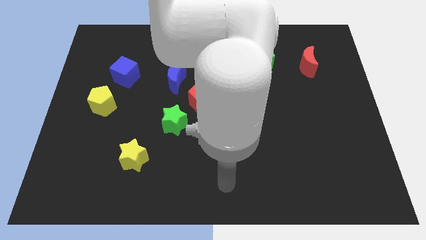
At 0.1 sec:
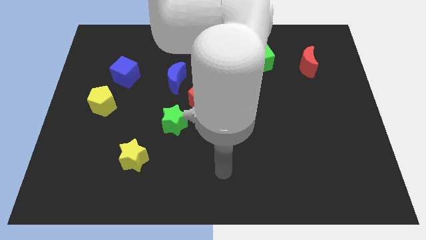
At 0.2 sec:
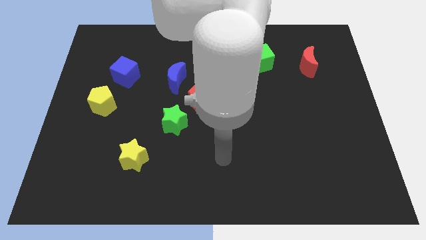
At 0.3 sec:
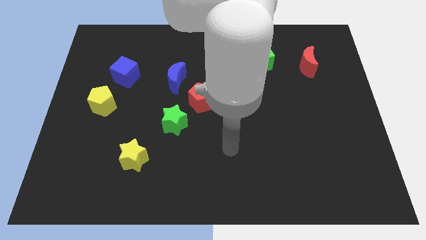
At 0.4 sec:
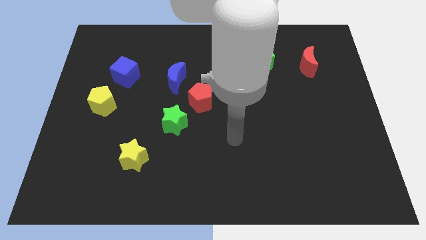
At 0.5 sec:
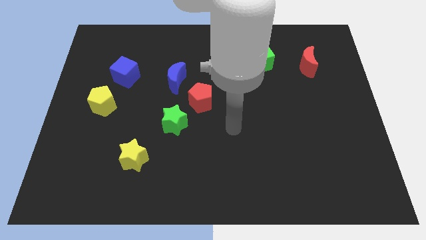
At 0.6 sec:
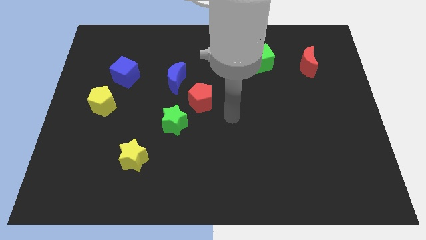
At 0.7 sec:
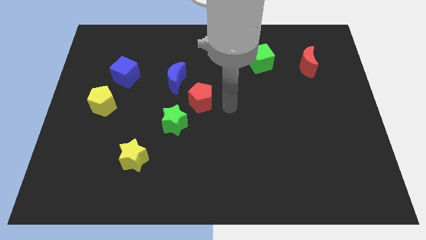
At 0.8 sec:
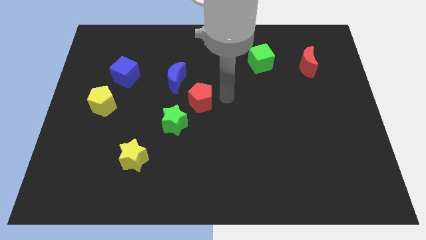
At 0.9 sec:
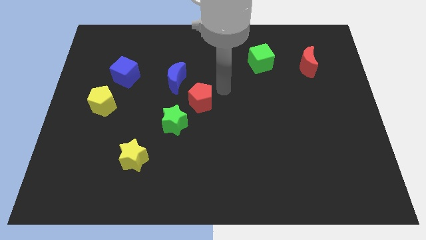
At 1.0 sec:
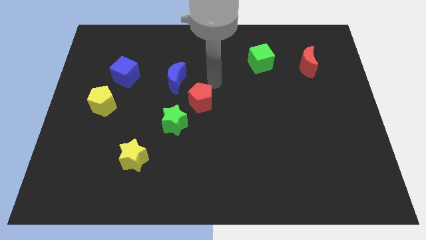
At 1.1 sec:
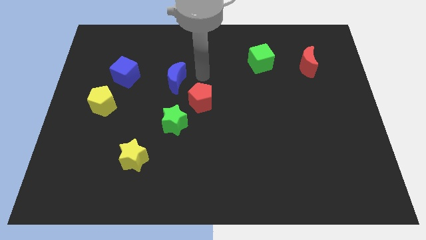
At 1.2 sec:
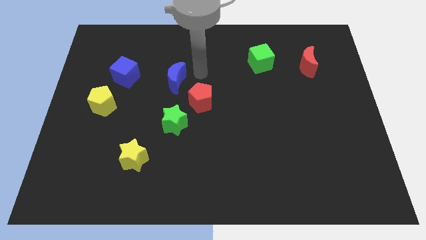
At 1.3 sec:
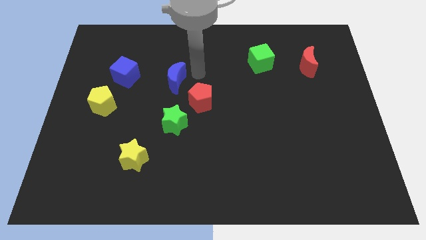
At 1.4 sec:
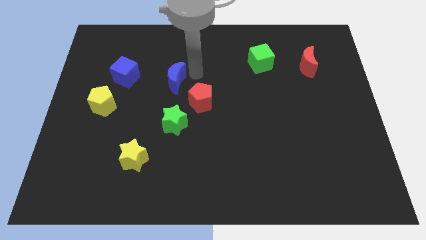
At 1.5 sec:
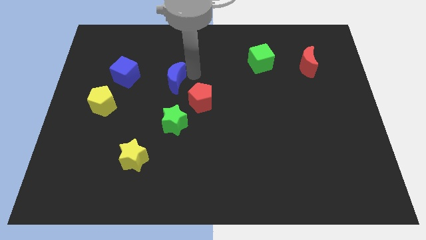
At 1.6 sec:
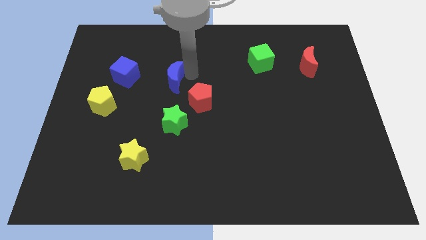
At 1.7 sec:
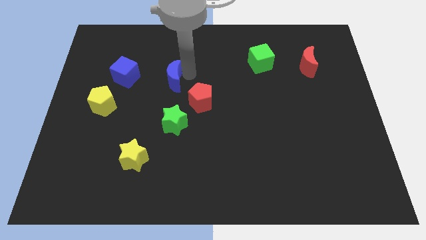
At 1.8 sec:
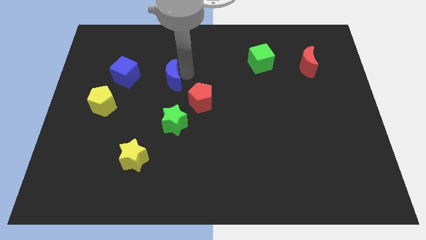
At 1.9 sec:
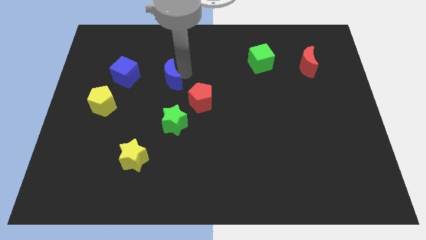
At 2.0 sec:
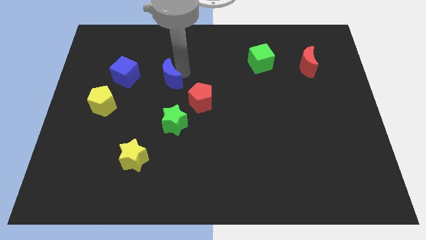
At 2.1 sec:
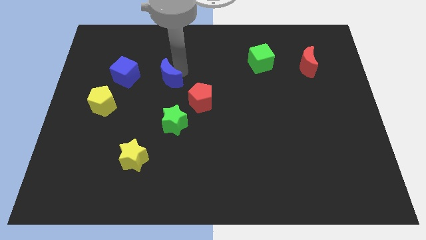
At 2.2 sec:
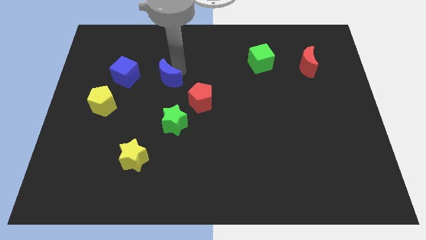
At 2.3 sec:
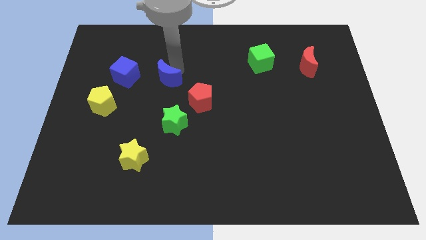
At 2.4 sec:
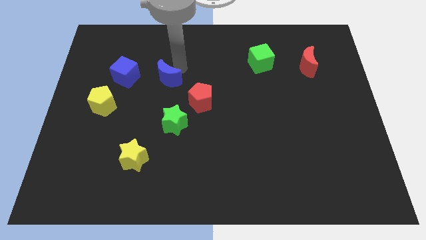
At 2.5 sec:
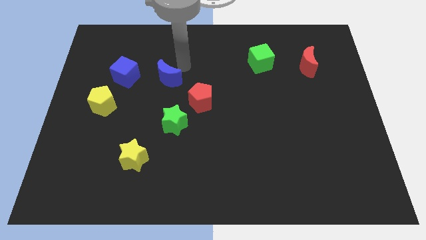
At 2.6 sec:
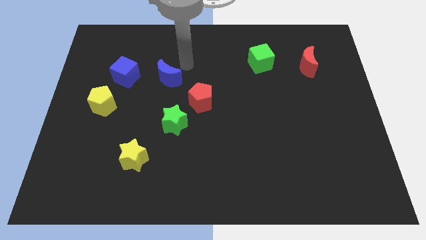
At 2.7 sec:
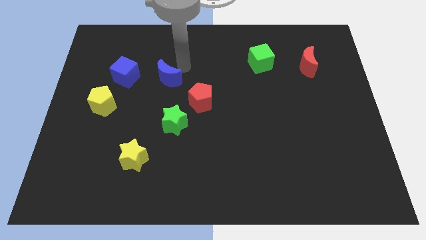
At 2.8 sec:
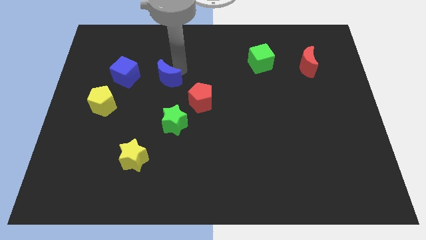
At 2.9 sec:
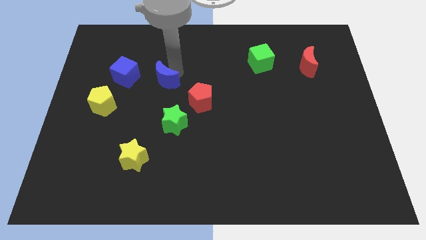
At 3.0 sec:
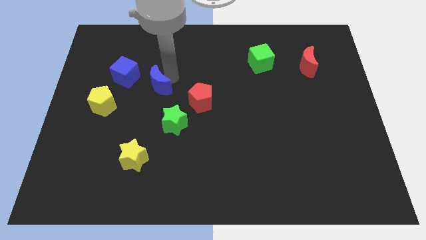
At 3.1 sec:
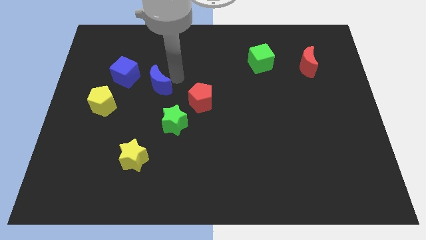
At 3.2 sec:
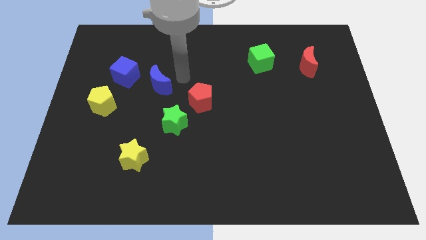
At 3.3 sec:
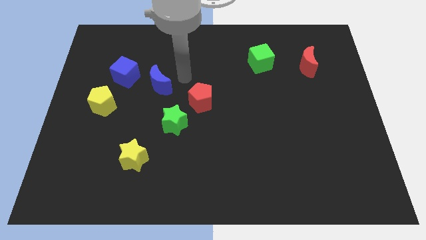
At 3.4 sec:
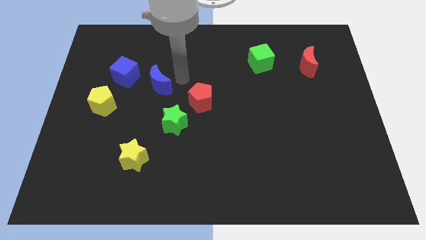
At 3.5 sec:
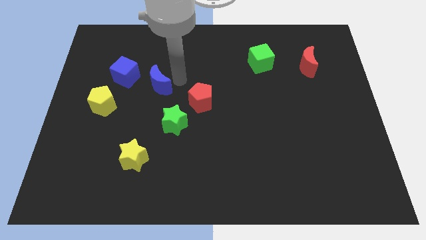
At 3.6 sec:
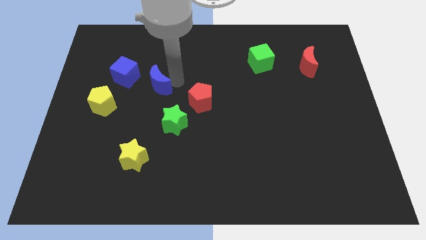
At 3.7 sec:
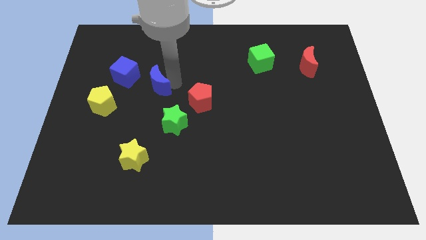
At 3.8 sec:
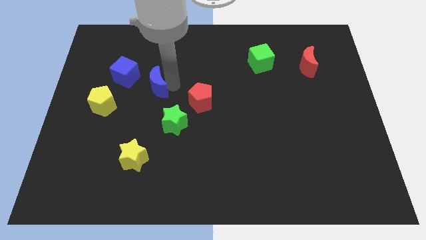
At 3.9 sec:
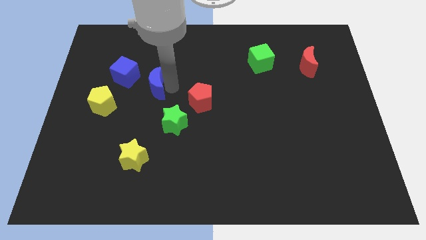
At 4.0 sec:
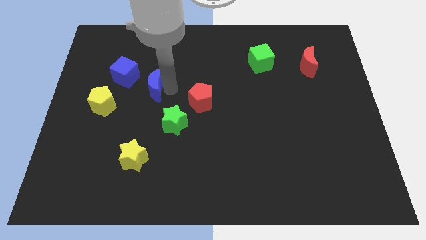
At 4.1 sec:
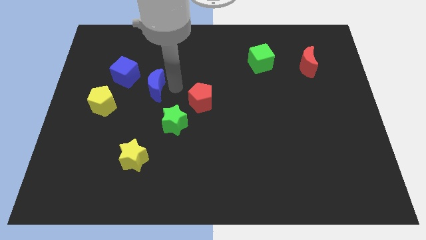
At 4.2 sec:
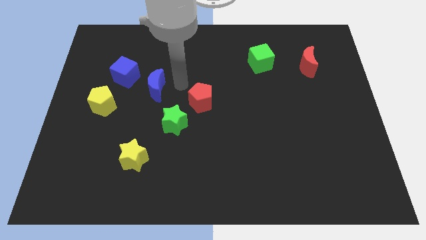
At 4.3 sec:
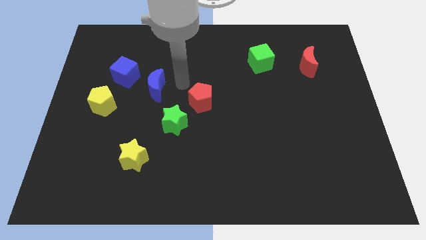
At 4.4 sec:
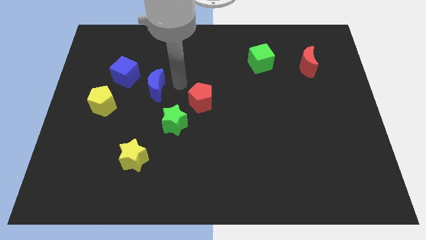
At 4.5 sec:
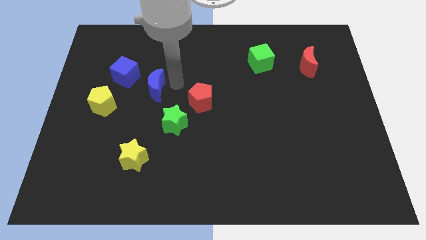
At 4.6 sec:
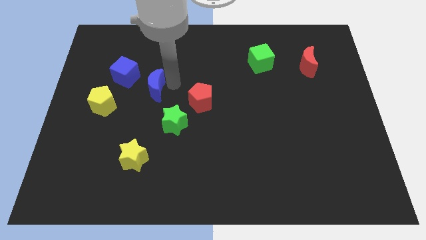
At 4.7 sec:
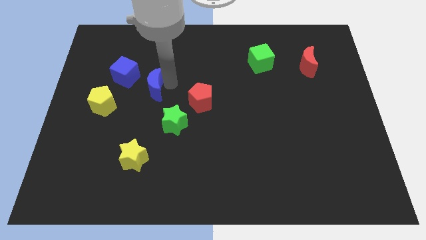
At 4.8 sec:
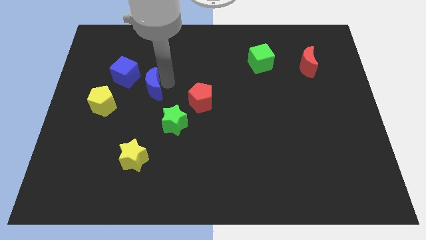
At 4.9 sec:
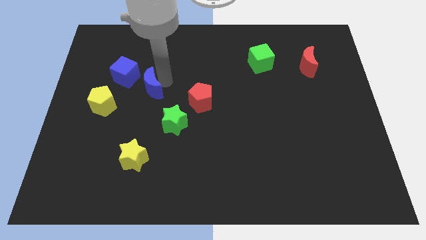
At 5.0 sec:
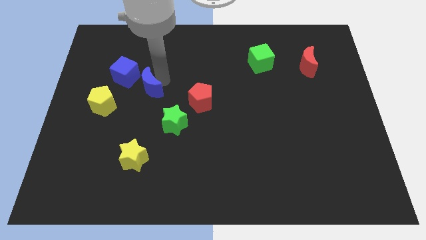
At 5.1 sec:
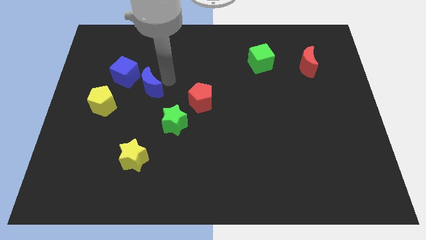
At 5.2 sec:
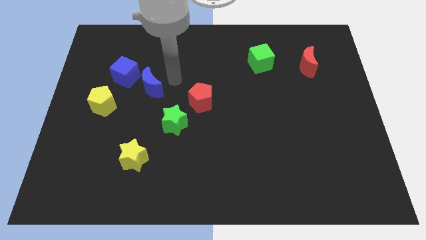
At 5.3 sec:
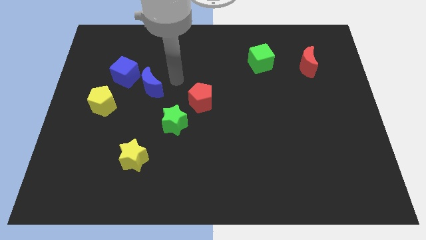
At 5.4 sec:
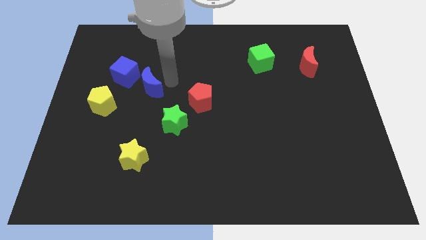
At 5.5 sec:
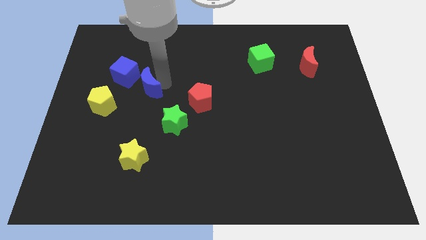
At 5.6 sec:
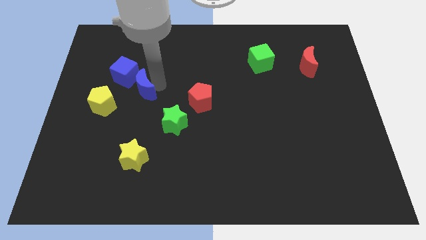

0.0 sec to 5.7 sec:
slide the blue moon slightly left

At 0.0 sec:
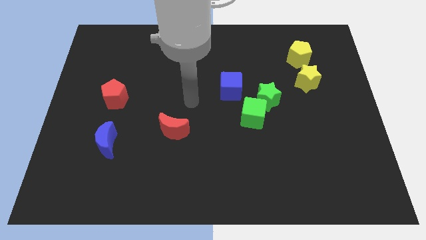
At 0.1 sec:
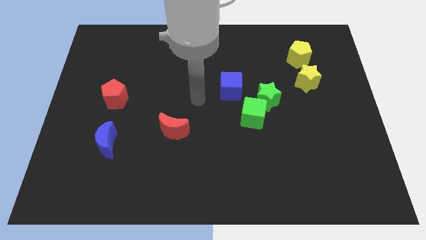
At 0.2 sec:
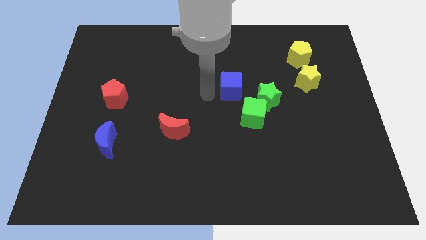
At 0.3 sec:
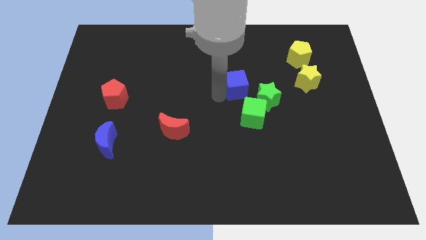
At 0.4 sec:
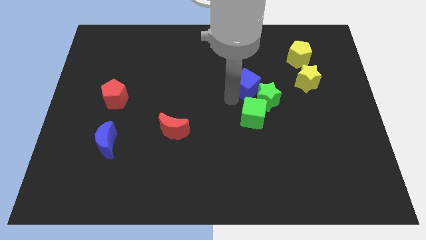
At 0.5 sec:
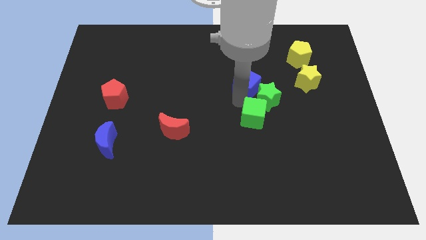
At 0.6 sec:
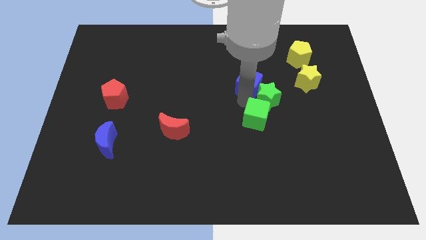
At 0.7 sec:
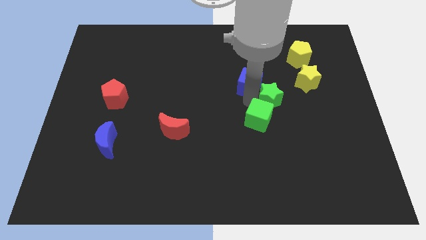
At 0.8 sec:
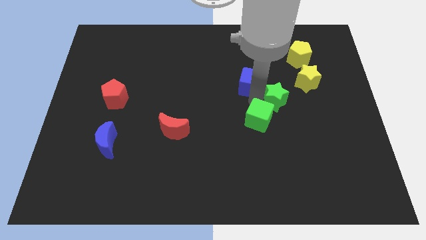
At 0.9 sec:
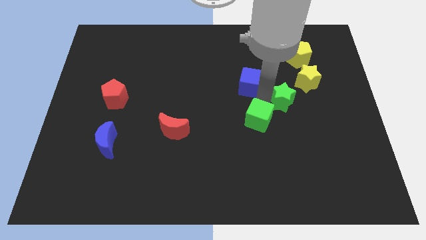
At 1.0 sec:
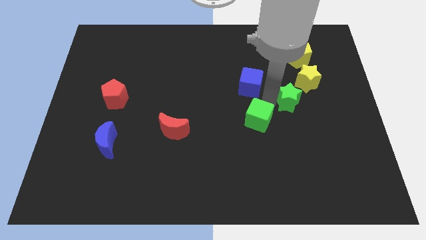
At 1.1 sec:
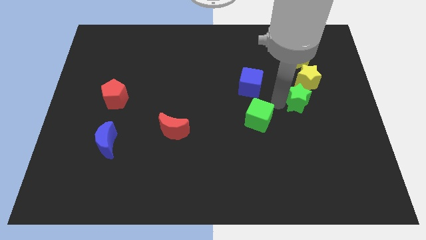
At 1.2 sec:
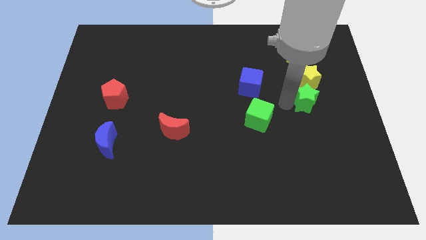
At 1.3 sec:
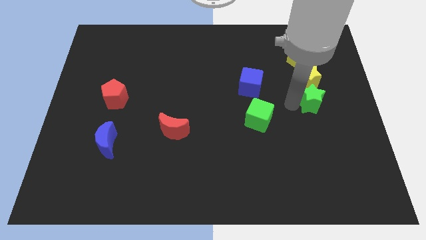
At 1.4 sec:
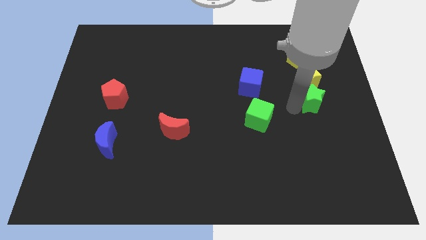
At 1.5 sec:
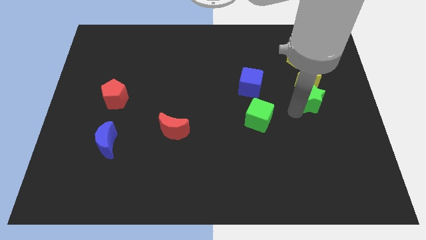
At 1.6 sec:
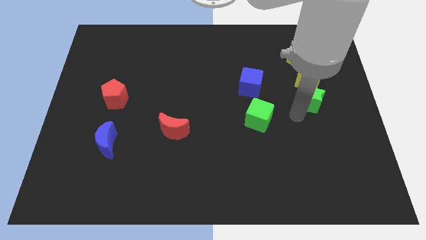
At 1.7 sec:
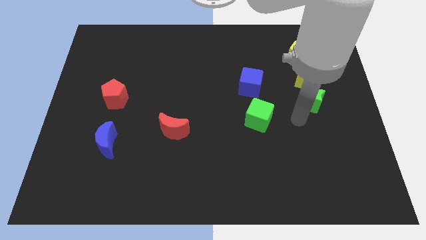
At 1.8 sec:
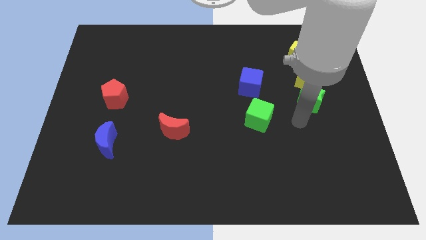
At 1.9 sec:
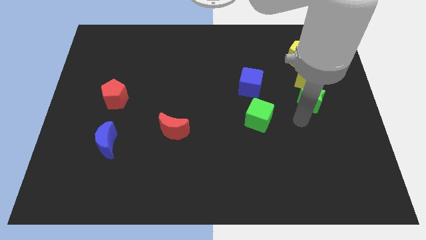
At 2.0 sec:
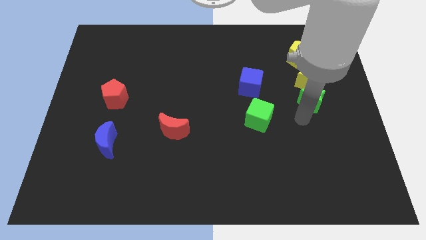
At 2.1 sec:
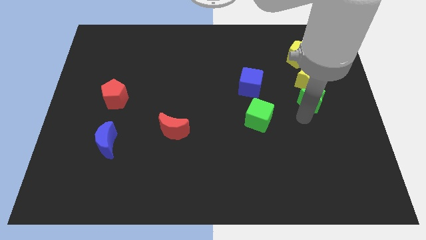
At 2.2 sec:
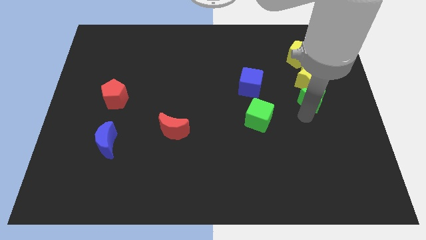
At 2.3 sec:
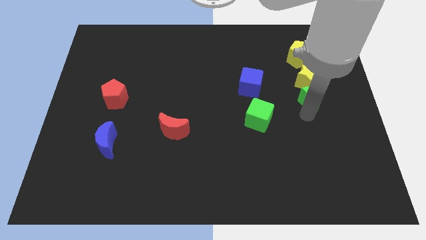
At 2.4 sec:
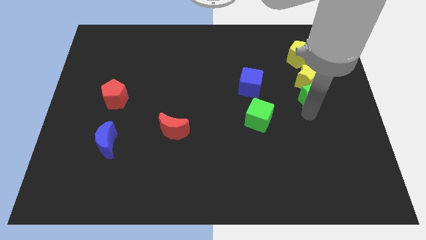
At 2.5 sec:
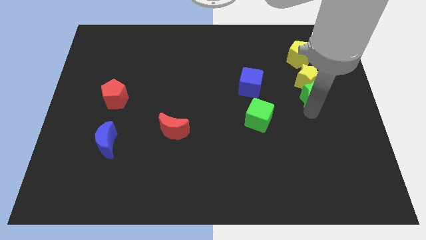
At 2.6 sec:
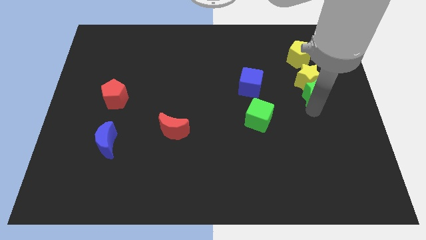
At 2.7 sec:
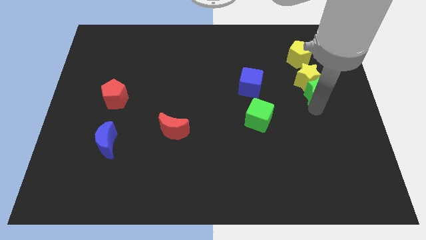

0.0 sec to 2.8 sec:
slightly push the green star up and then right
